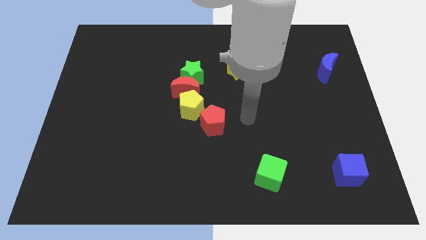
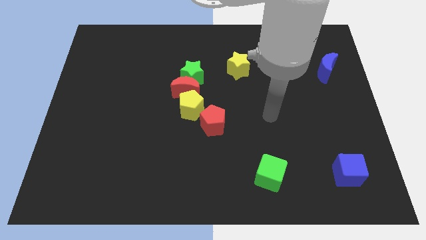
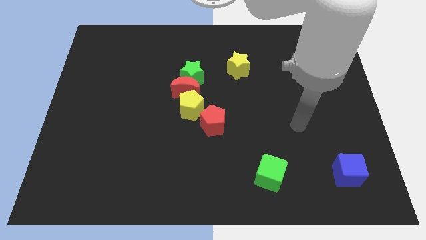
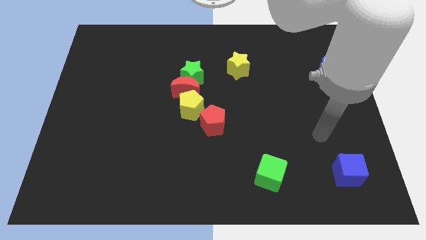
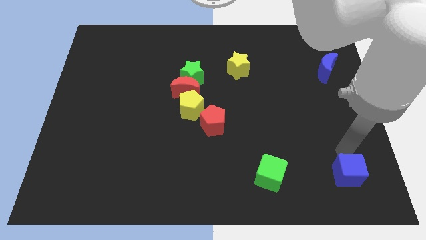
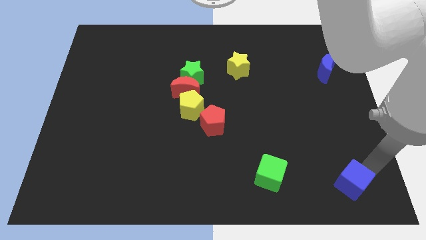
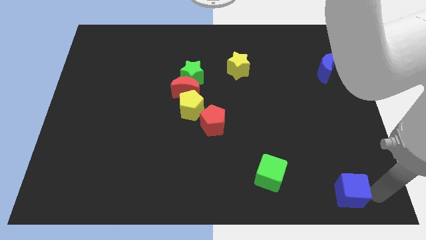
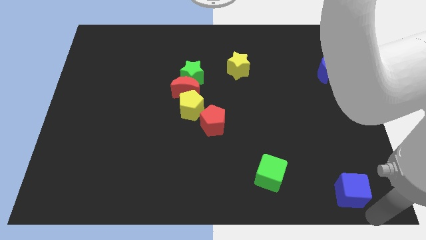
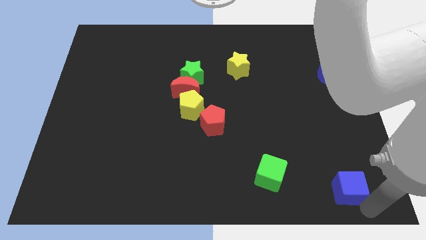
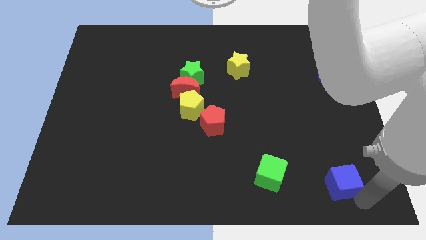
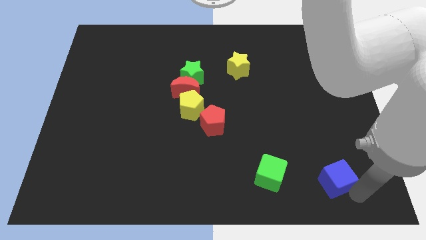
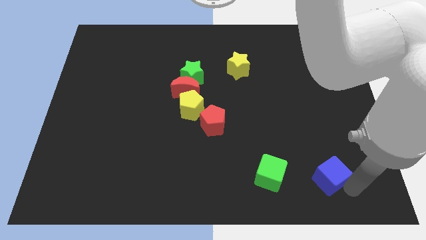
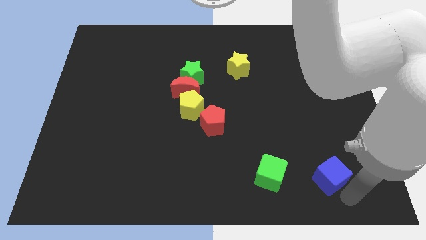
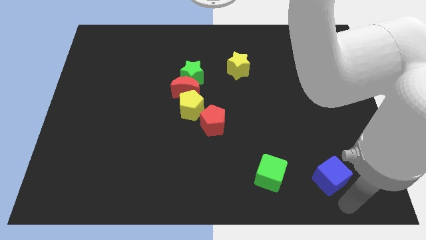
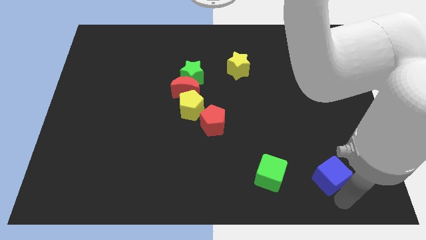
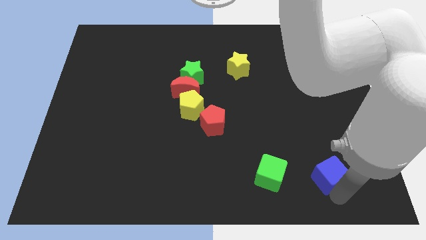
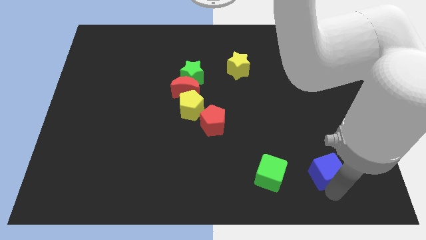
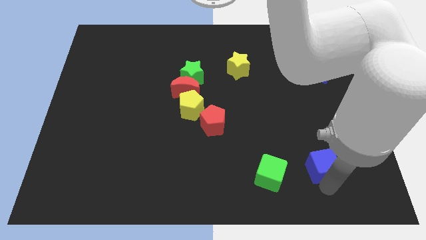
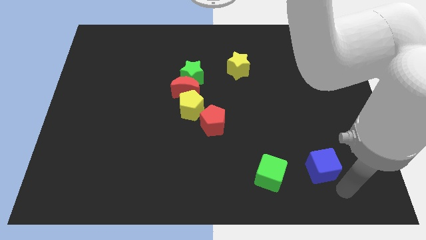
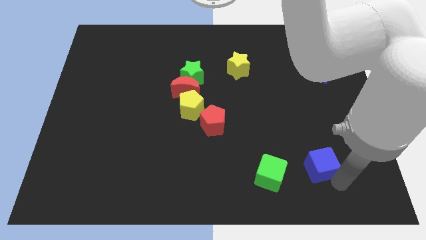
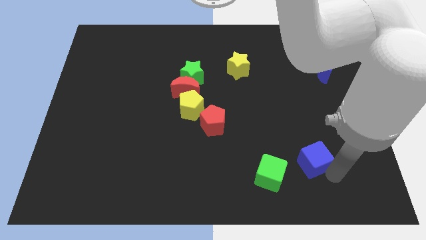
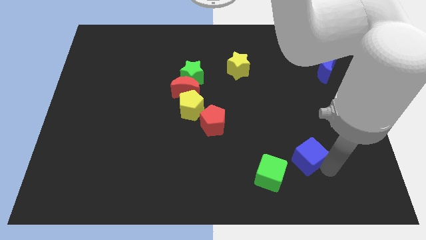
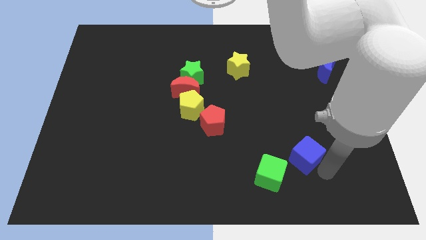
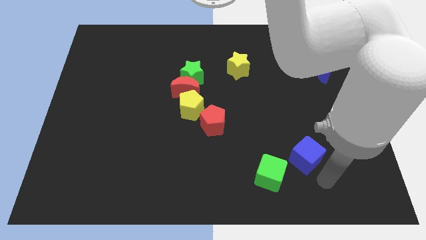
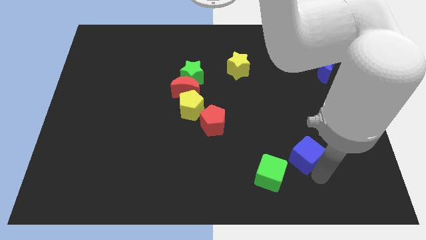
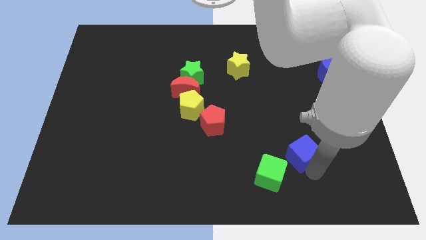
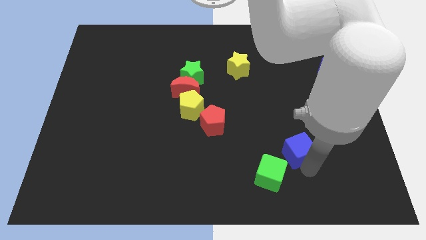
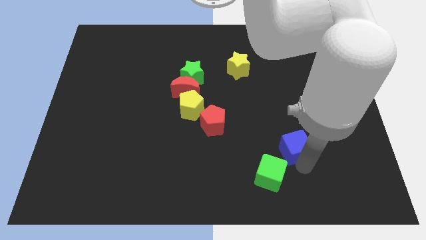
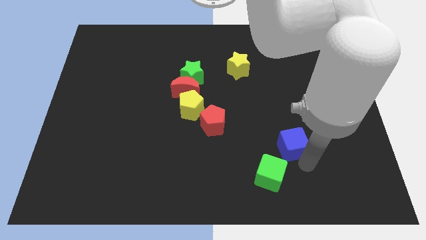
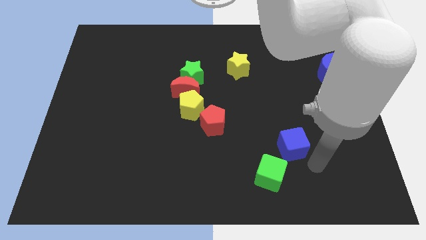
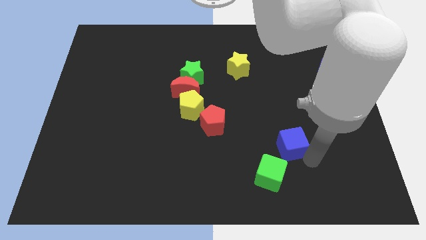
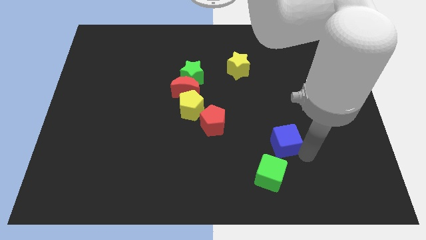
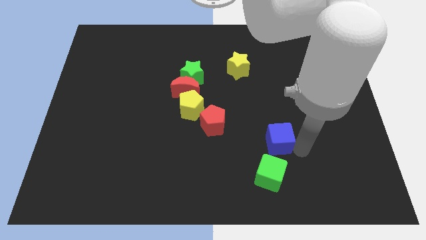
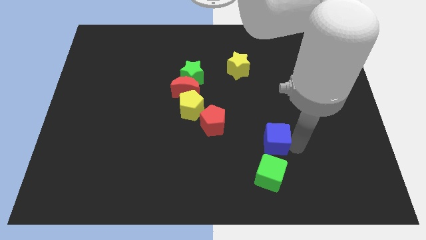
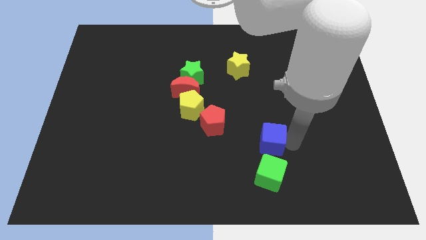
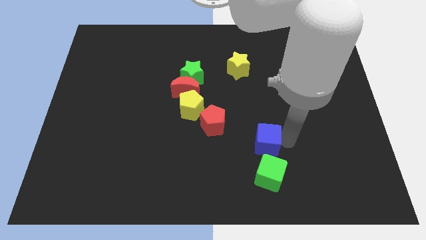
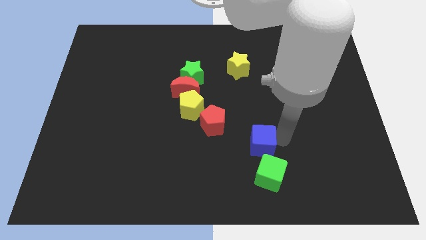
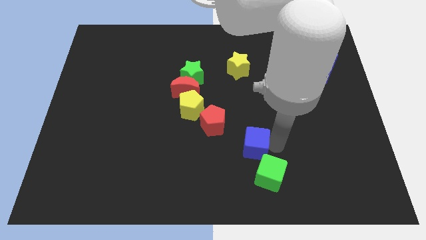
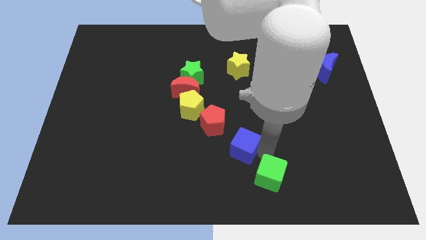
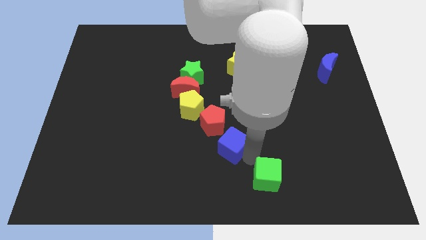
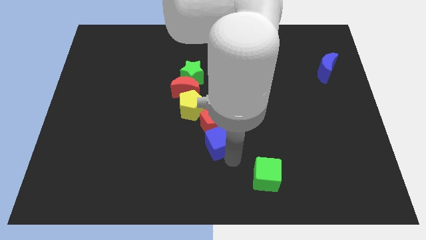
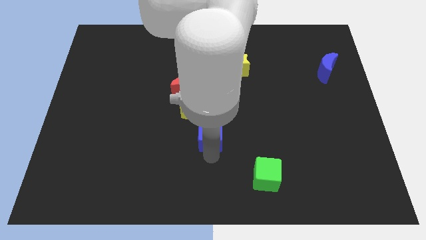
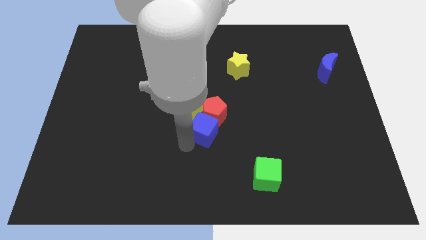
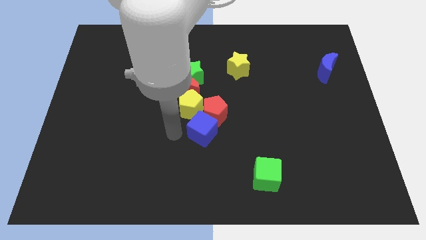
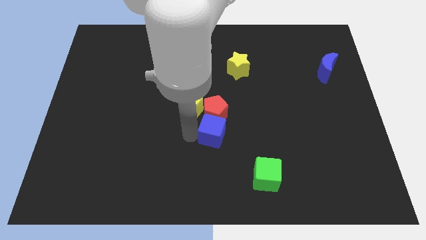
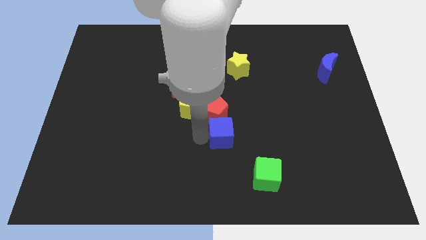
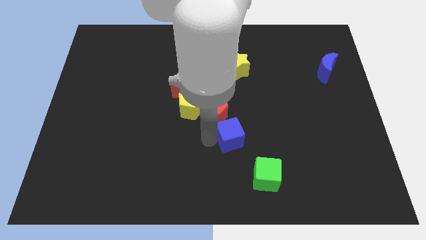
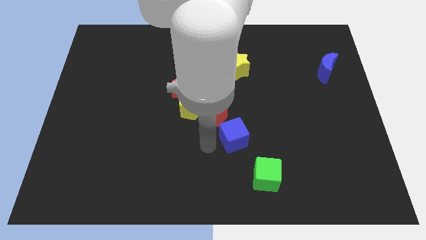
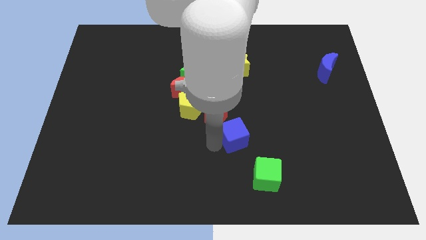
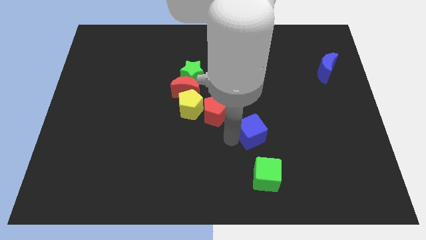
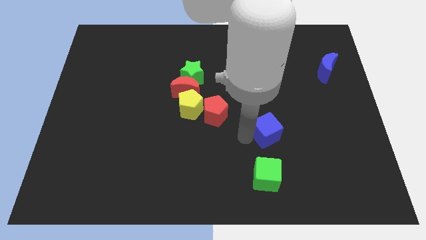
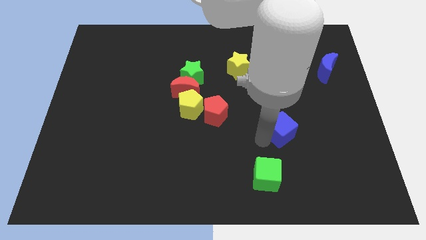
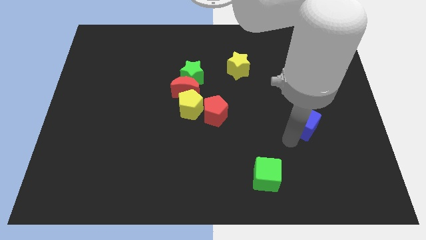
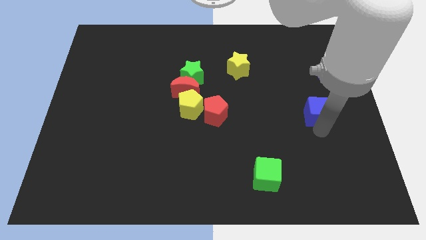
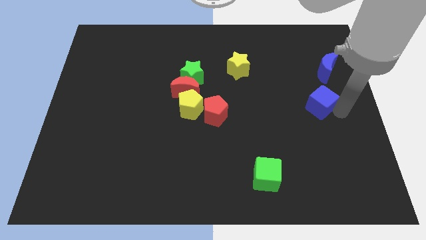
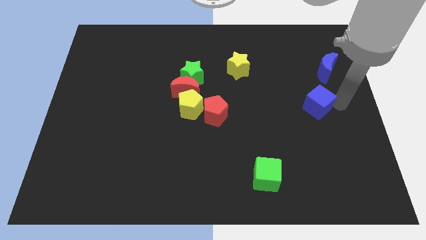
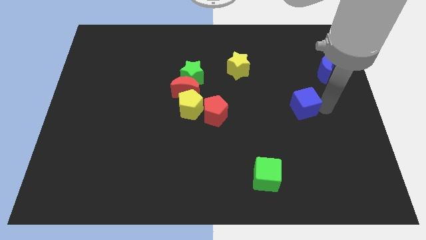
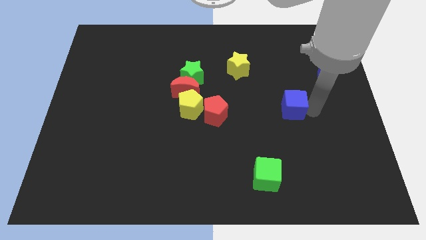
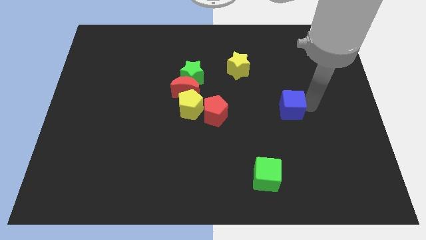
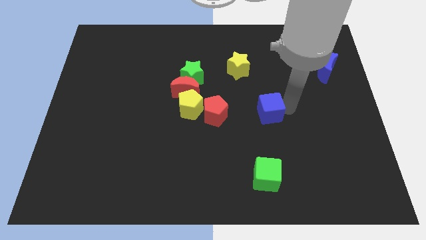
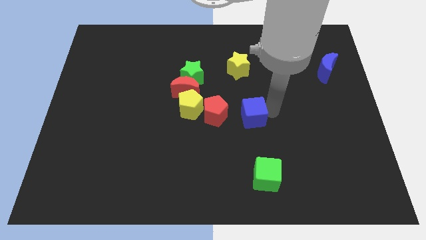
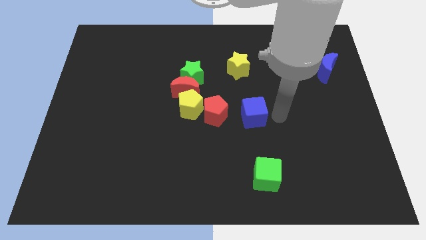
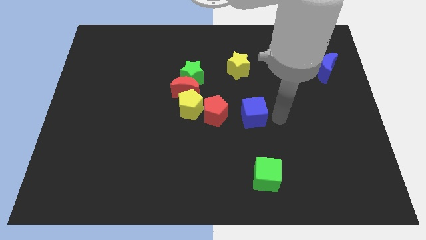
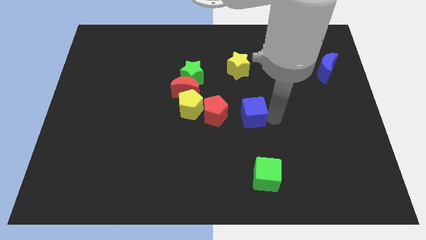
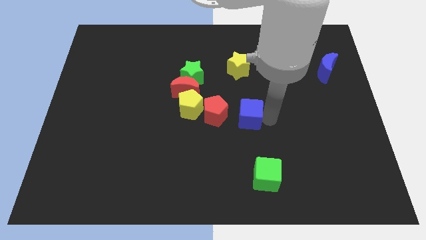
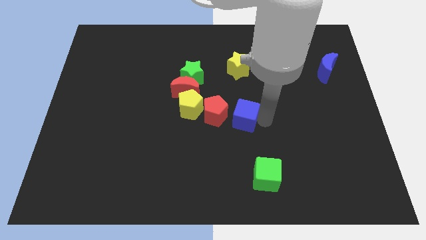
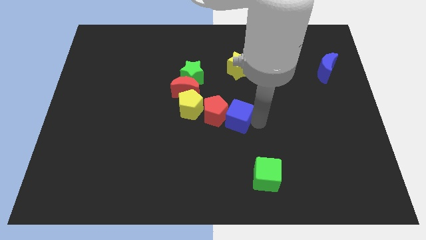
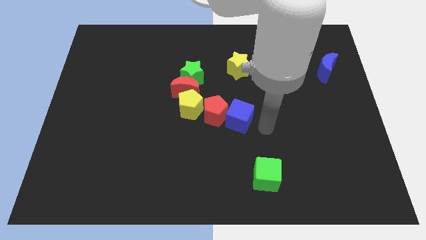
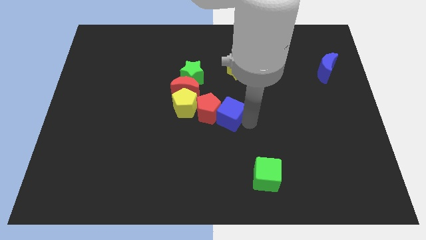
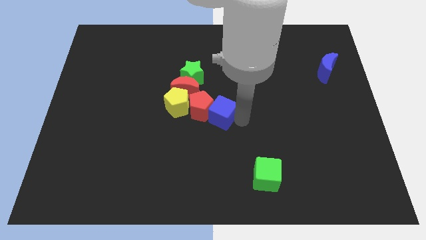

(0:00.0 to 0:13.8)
slide the blue cube to the bottom right side of the red moon

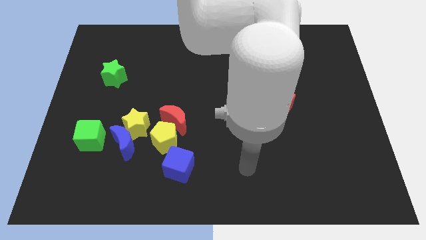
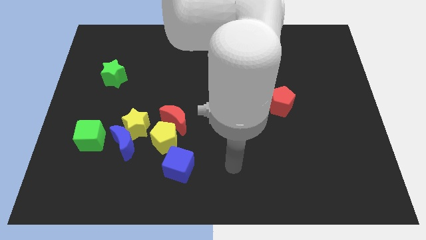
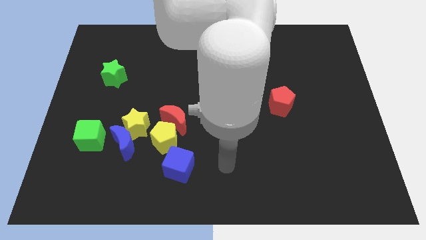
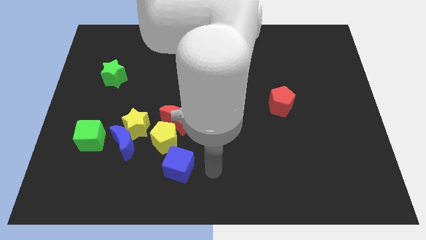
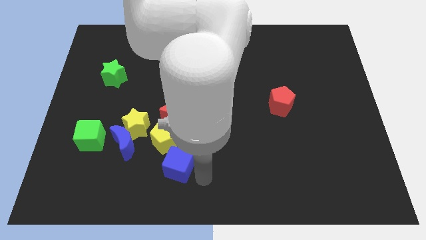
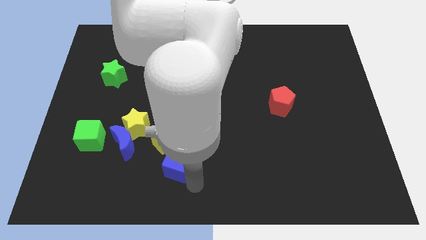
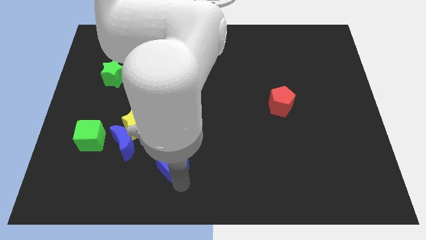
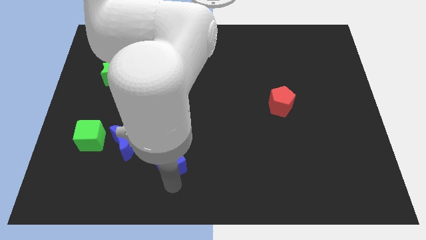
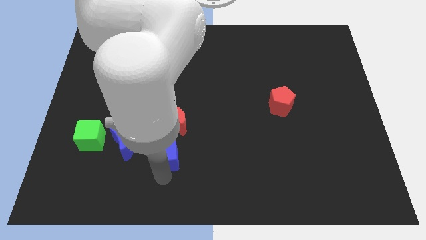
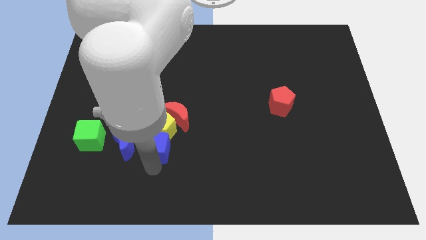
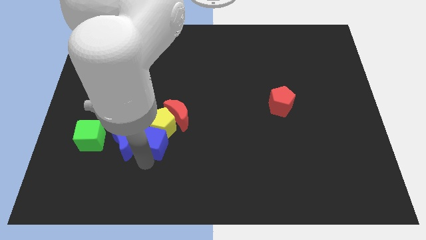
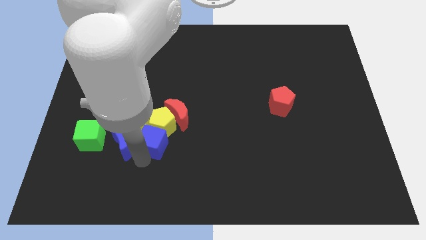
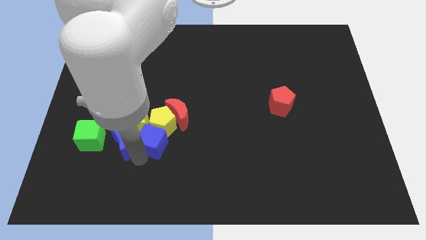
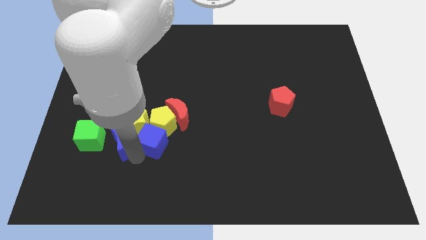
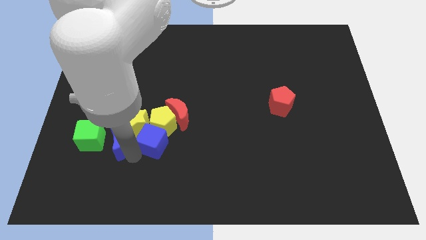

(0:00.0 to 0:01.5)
push the blue moon left of the yellow star
